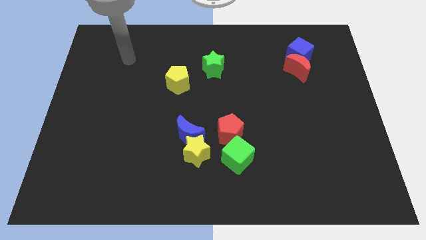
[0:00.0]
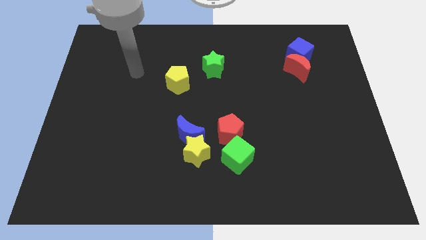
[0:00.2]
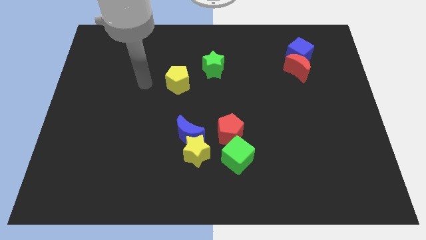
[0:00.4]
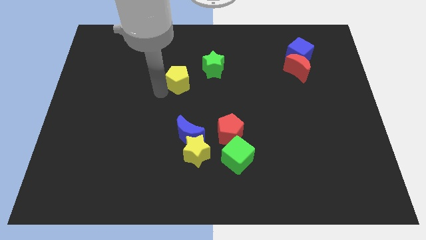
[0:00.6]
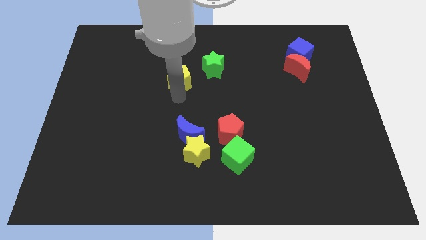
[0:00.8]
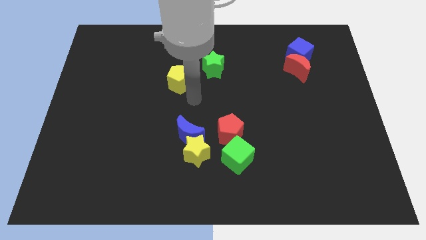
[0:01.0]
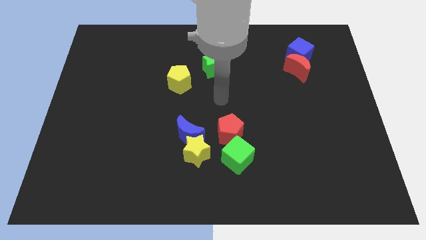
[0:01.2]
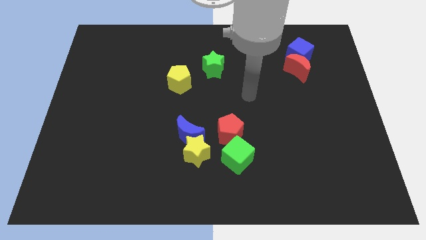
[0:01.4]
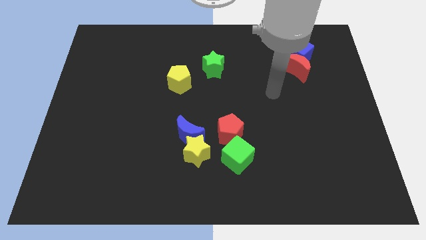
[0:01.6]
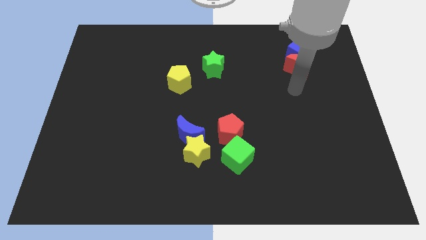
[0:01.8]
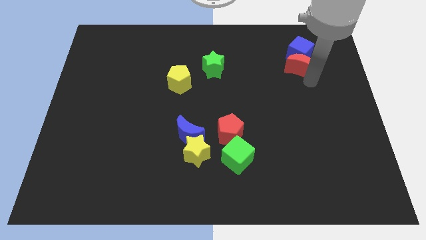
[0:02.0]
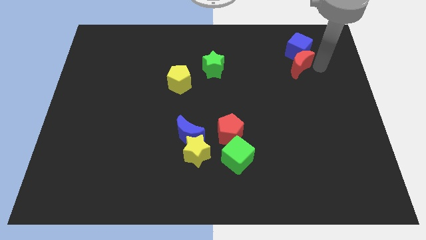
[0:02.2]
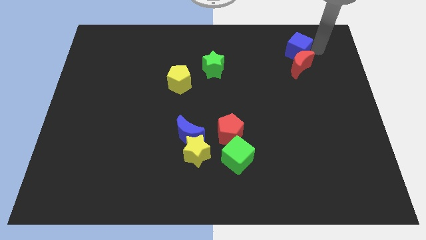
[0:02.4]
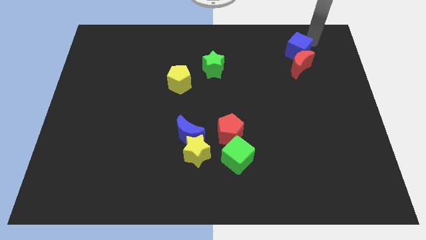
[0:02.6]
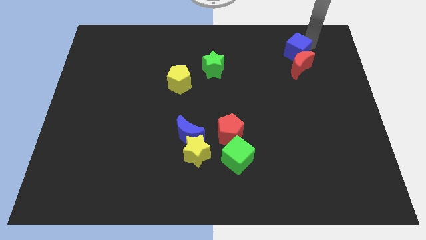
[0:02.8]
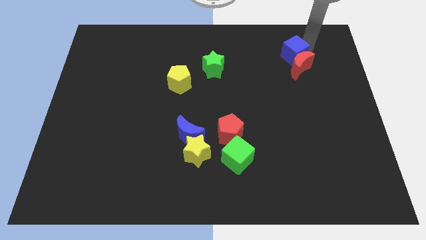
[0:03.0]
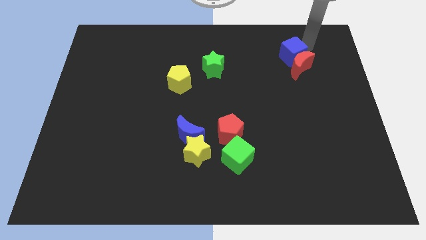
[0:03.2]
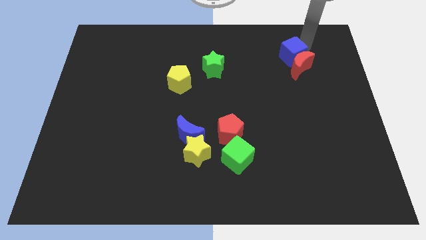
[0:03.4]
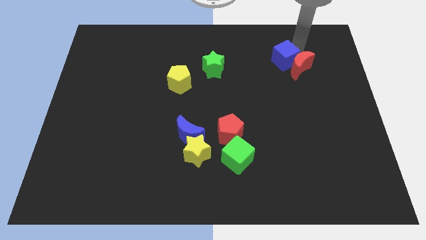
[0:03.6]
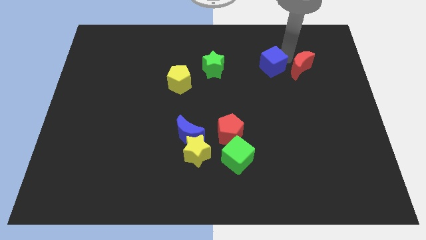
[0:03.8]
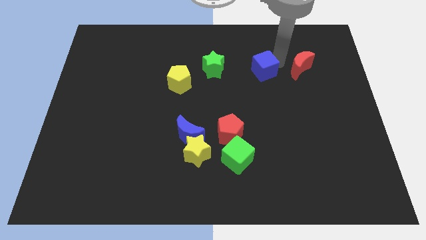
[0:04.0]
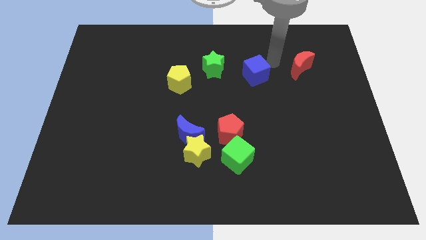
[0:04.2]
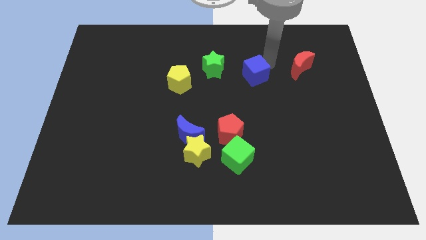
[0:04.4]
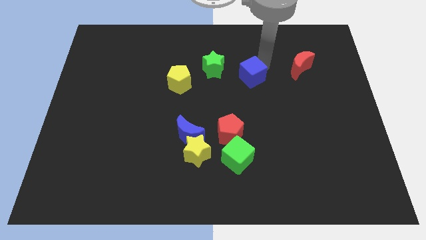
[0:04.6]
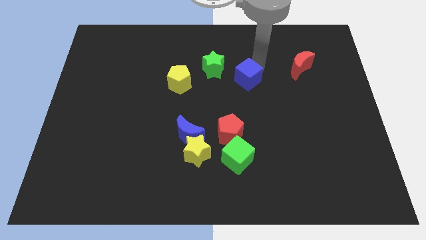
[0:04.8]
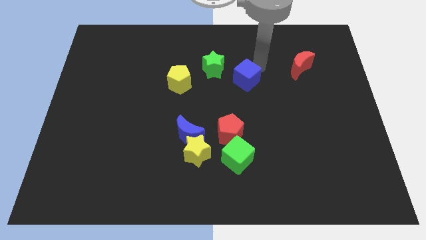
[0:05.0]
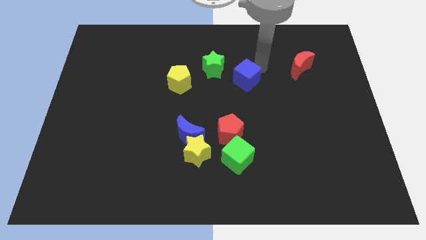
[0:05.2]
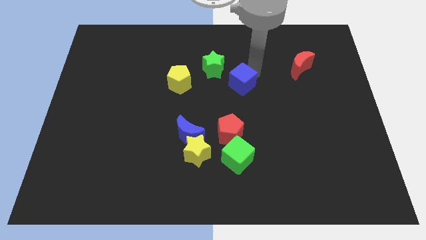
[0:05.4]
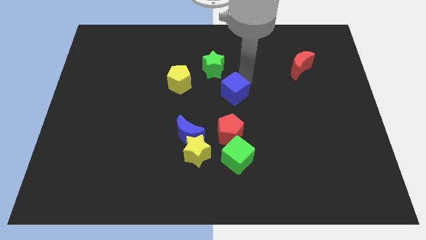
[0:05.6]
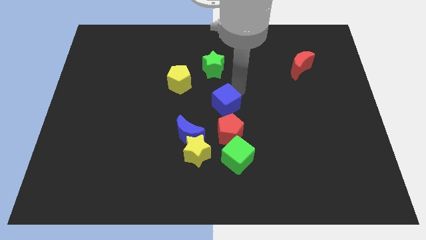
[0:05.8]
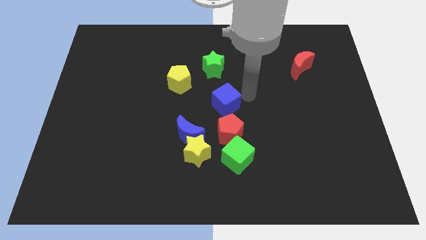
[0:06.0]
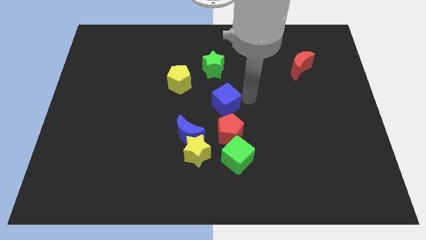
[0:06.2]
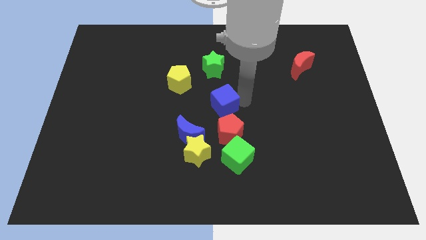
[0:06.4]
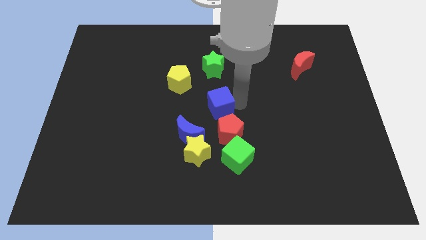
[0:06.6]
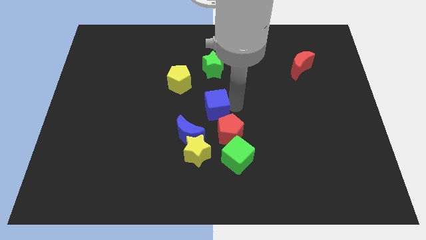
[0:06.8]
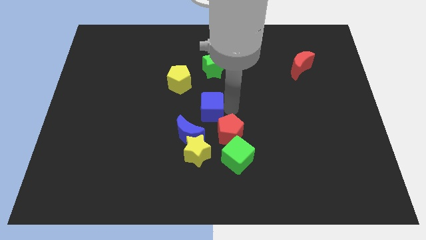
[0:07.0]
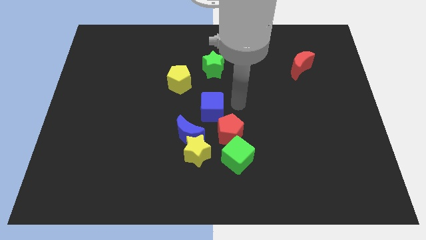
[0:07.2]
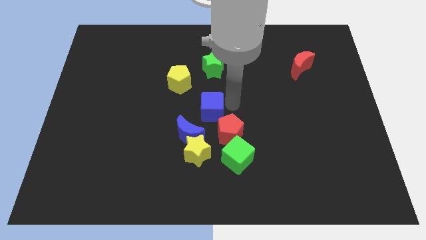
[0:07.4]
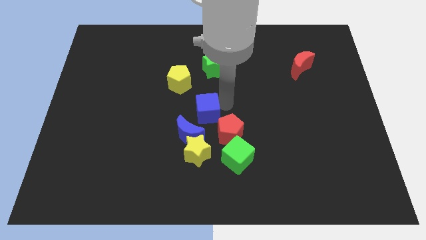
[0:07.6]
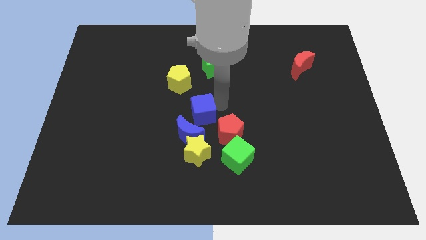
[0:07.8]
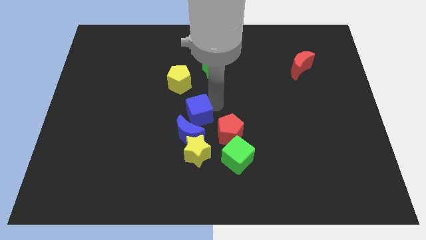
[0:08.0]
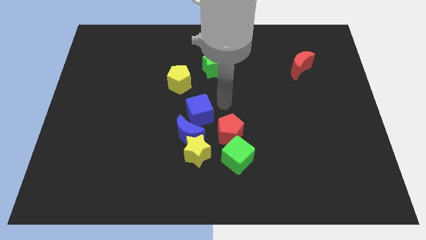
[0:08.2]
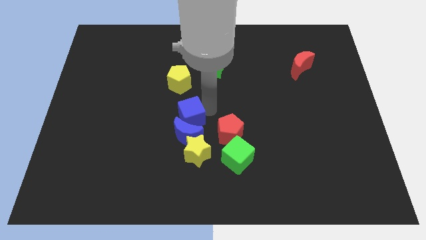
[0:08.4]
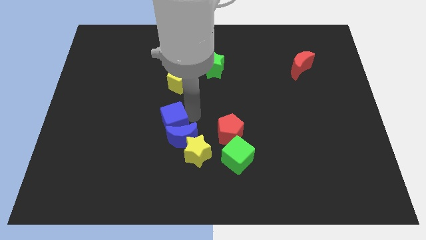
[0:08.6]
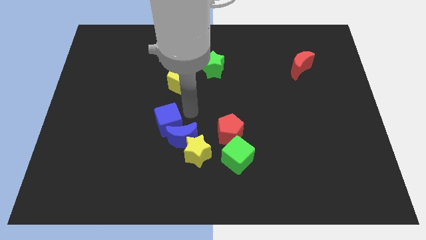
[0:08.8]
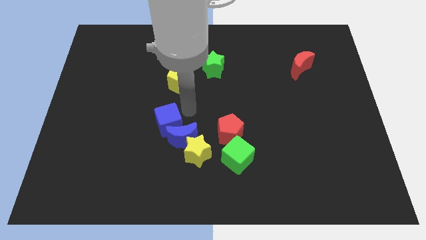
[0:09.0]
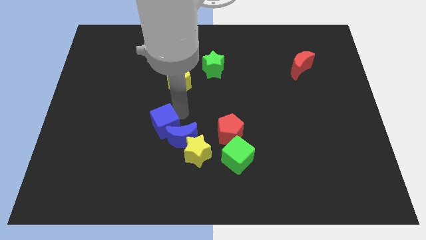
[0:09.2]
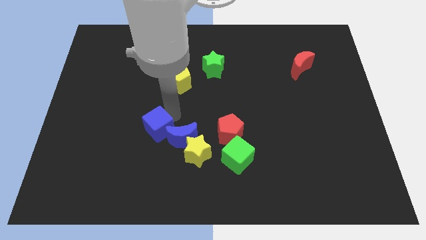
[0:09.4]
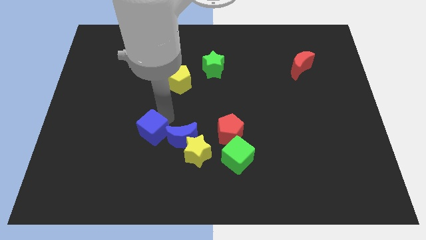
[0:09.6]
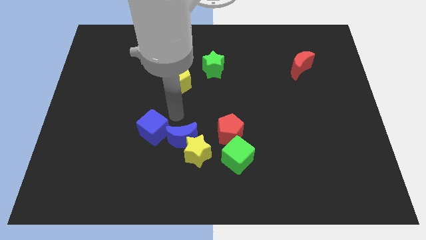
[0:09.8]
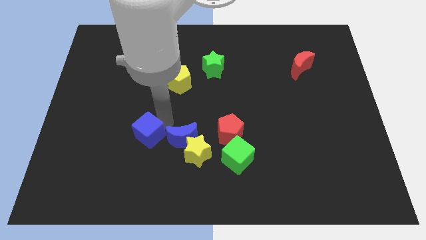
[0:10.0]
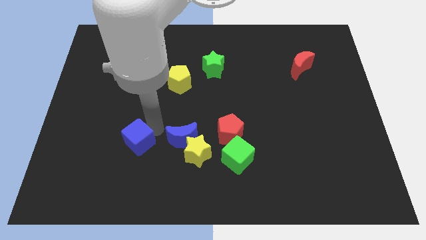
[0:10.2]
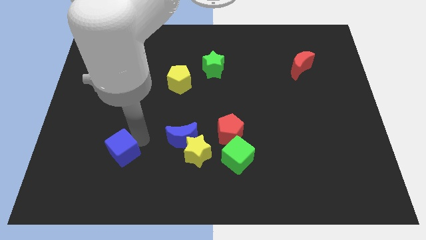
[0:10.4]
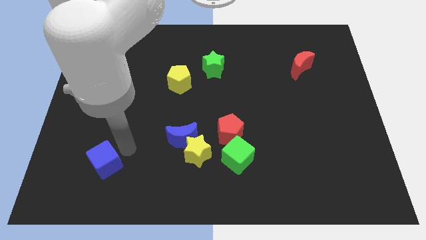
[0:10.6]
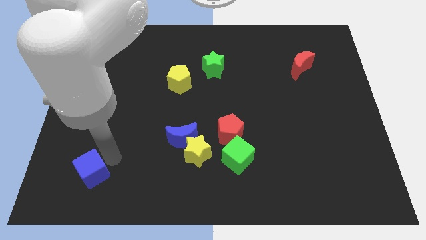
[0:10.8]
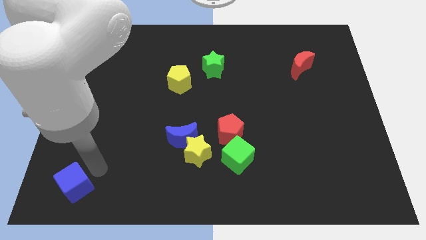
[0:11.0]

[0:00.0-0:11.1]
push the blue cube to the bottom left corner
